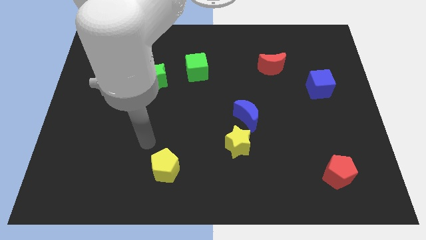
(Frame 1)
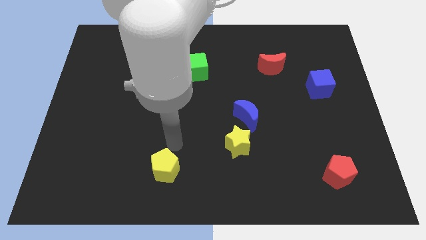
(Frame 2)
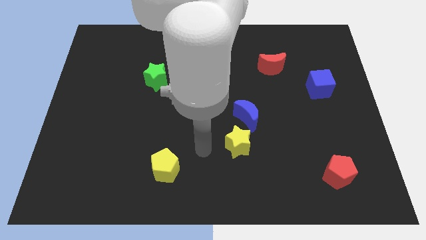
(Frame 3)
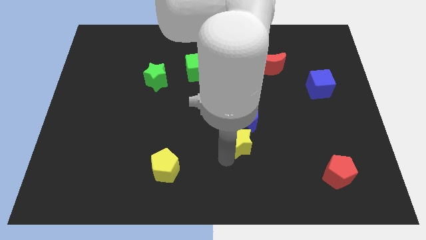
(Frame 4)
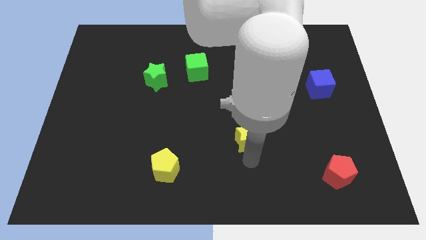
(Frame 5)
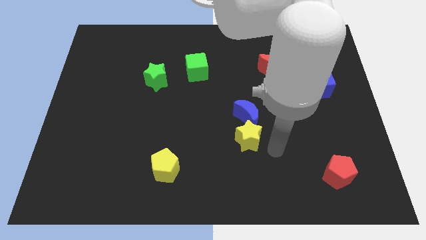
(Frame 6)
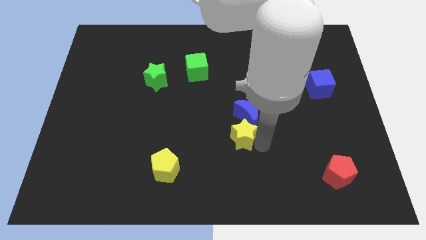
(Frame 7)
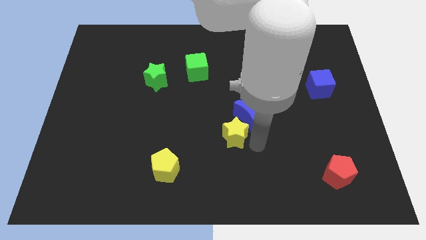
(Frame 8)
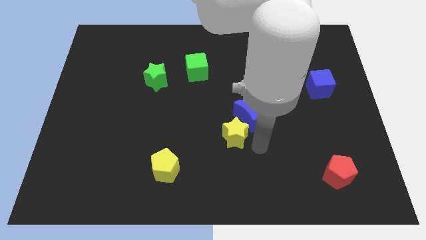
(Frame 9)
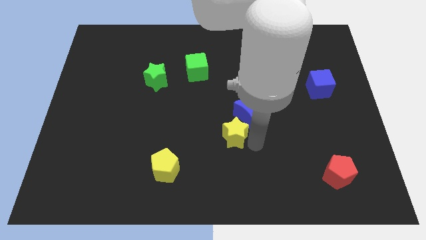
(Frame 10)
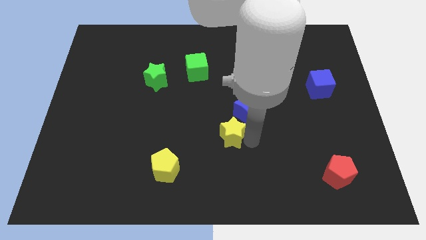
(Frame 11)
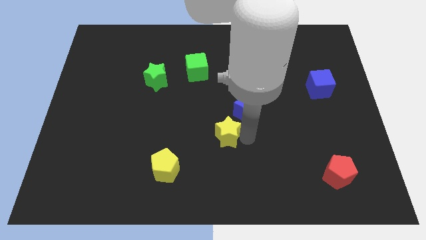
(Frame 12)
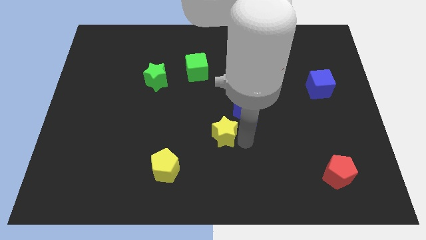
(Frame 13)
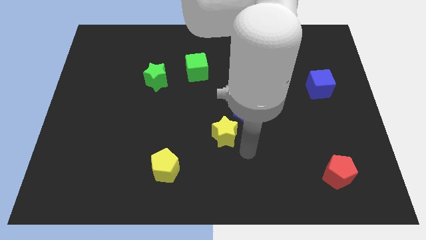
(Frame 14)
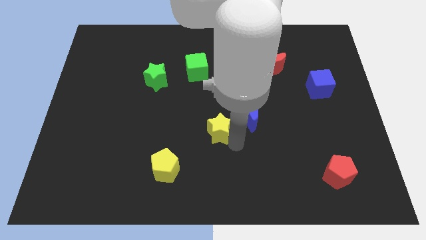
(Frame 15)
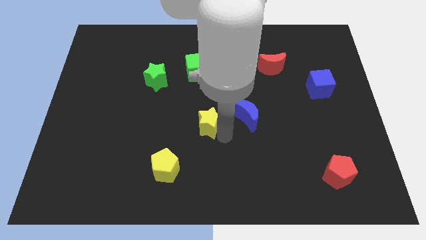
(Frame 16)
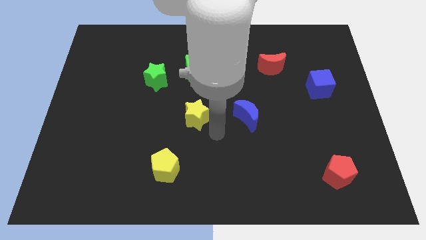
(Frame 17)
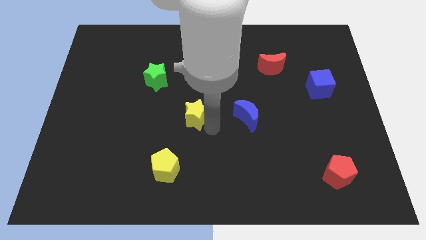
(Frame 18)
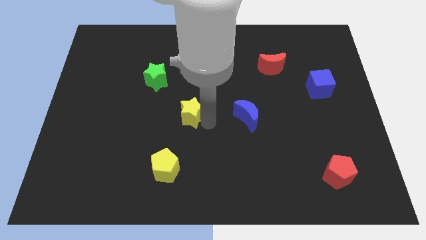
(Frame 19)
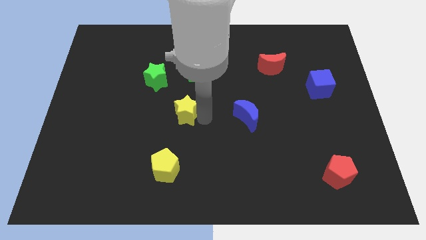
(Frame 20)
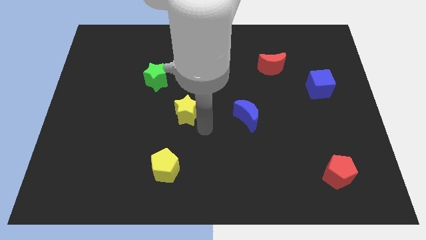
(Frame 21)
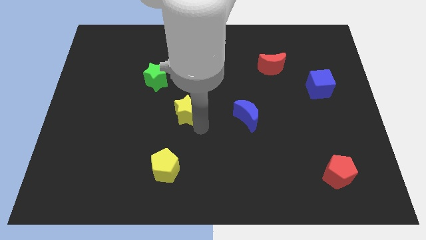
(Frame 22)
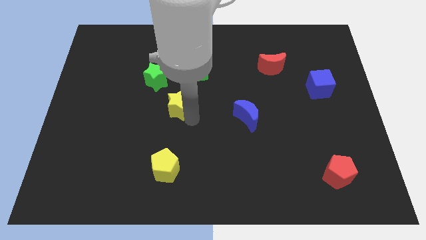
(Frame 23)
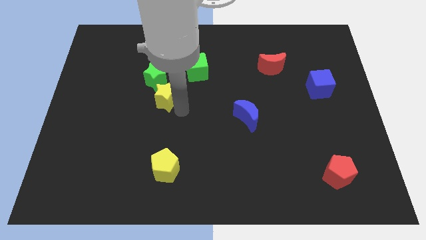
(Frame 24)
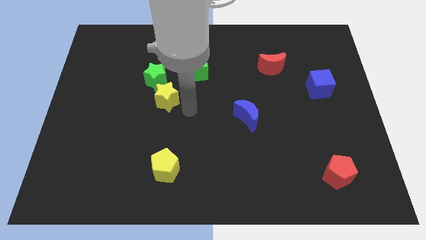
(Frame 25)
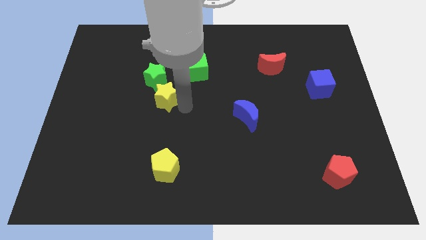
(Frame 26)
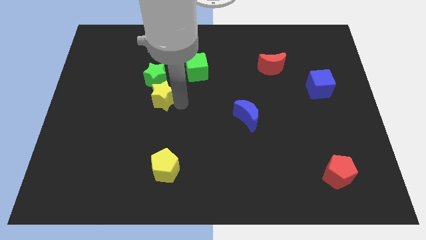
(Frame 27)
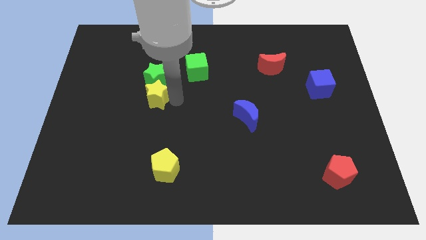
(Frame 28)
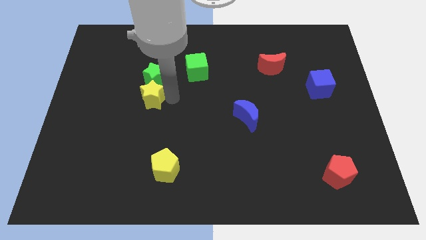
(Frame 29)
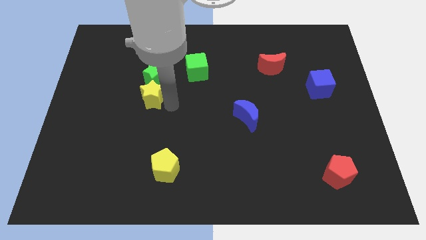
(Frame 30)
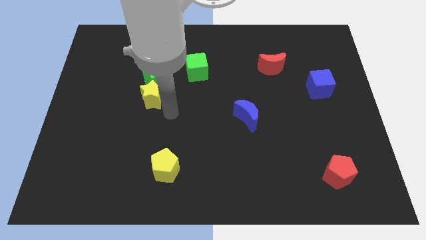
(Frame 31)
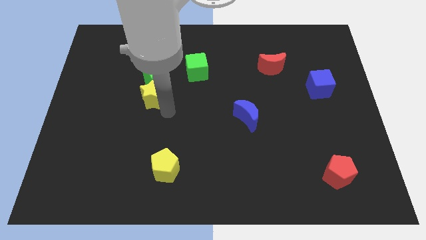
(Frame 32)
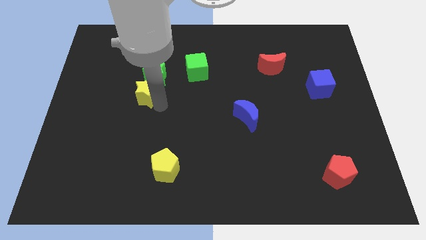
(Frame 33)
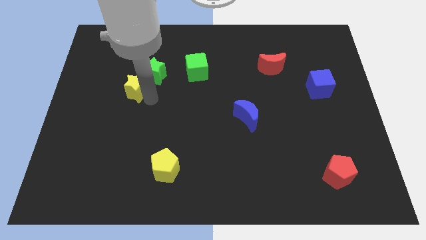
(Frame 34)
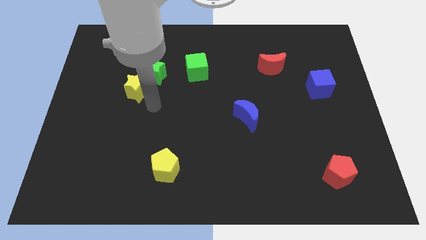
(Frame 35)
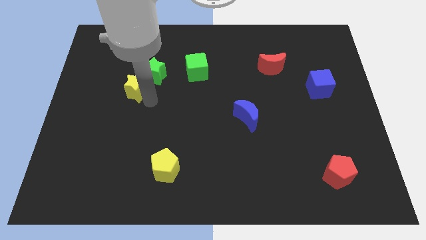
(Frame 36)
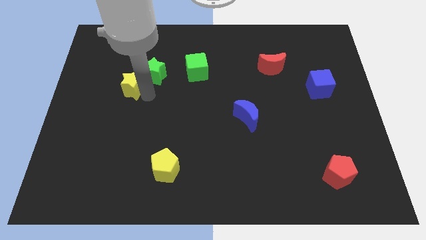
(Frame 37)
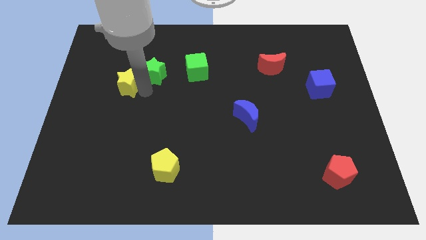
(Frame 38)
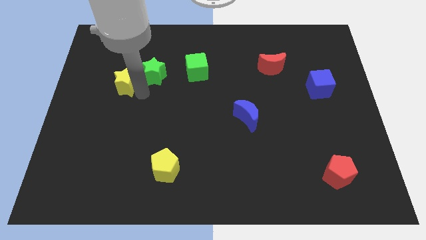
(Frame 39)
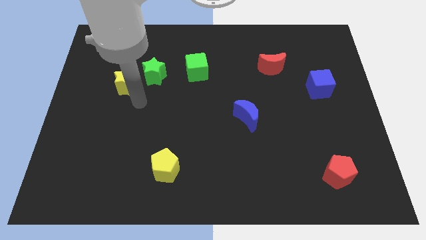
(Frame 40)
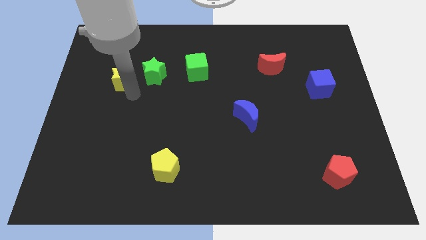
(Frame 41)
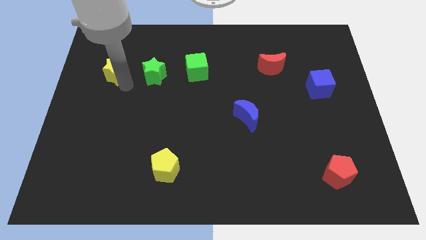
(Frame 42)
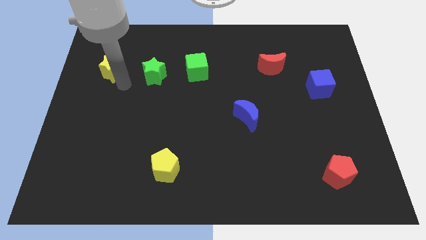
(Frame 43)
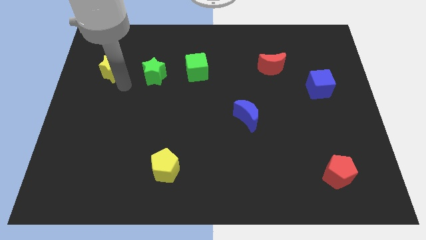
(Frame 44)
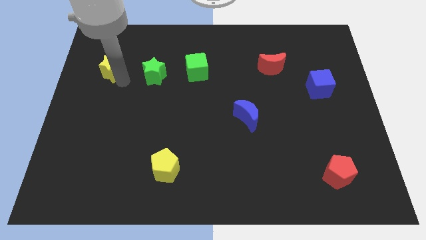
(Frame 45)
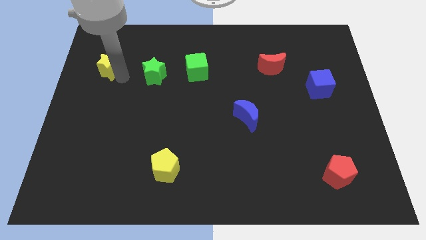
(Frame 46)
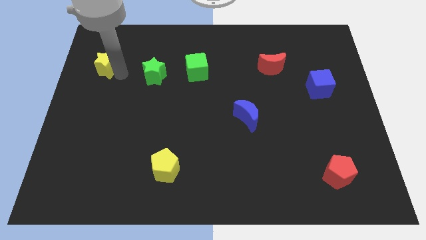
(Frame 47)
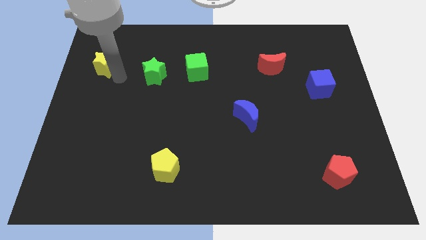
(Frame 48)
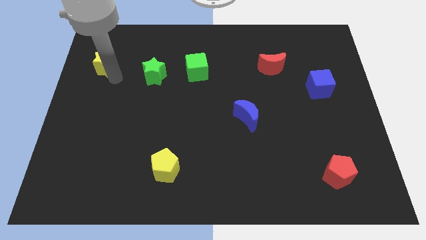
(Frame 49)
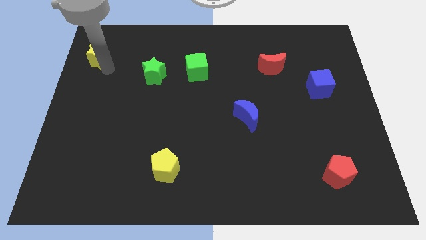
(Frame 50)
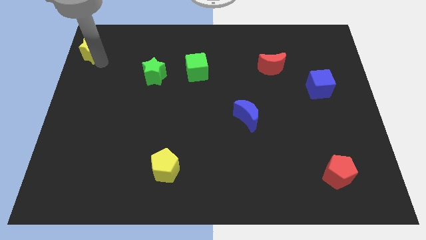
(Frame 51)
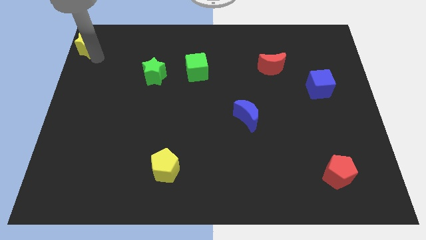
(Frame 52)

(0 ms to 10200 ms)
put the yellow star to the top left
